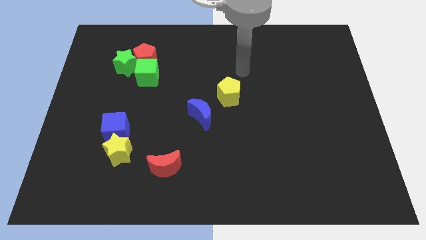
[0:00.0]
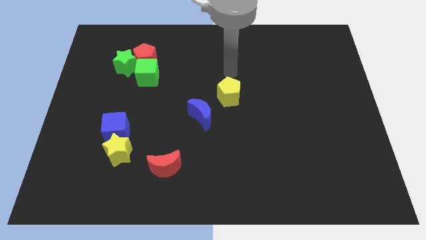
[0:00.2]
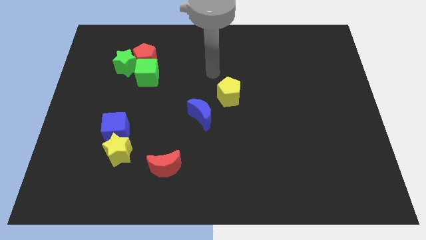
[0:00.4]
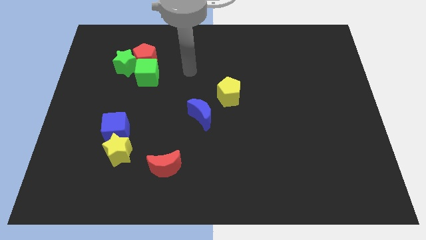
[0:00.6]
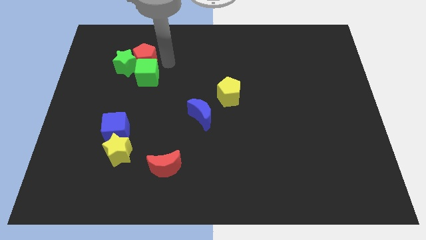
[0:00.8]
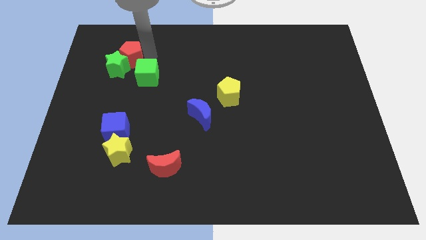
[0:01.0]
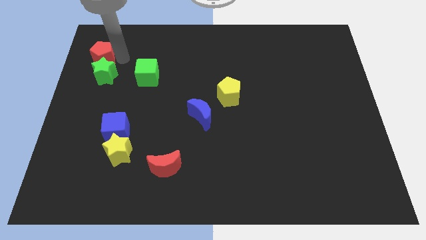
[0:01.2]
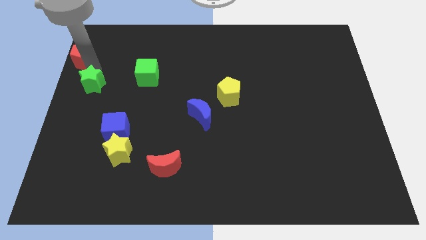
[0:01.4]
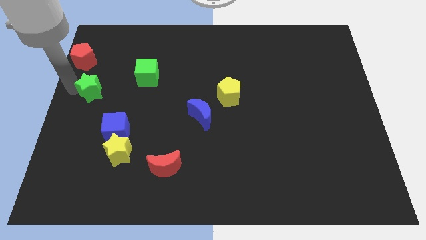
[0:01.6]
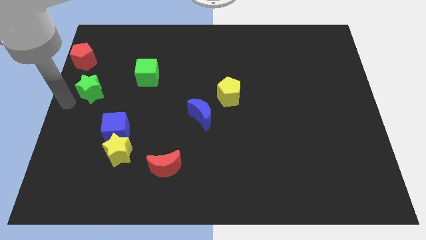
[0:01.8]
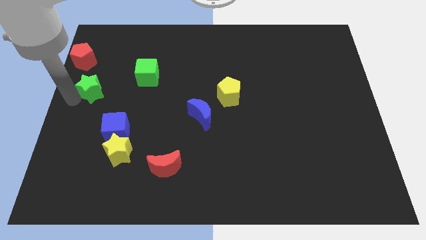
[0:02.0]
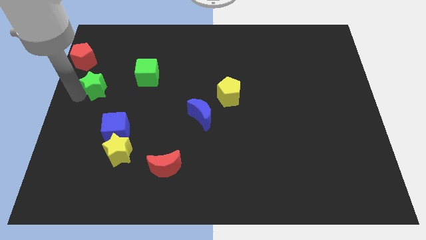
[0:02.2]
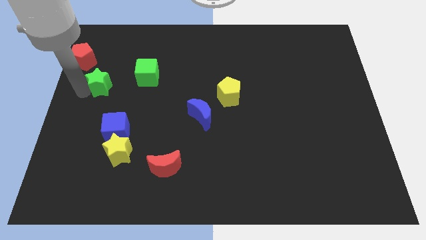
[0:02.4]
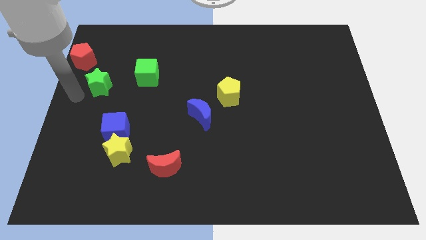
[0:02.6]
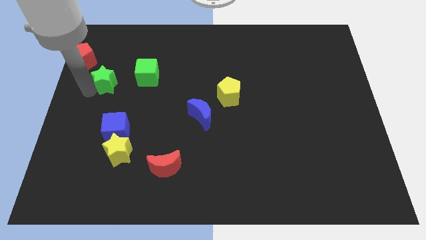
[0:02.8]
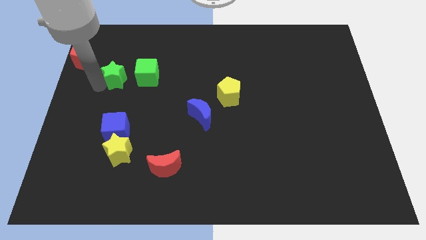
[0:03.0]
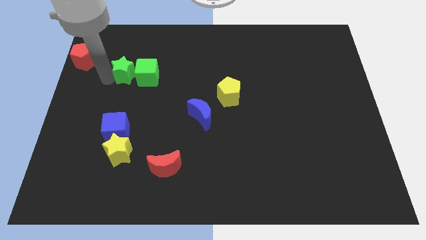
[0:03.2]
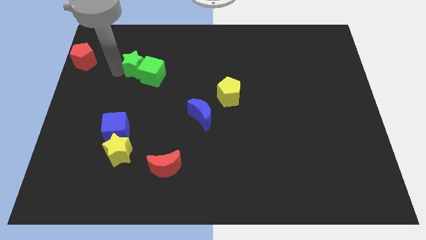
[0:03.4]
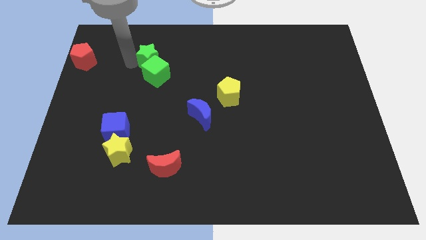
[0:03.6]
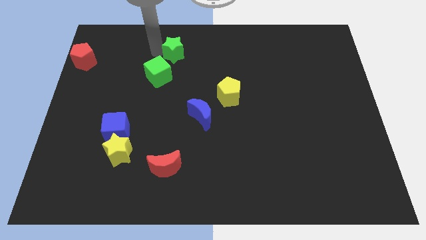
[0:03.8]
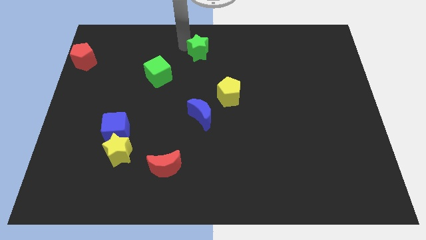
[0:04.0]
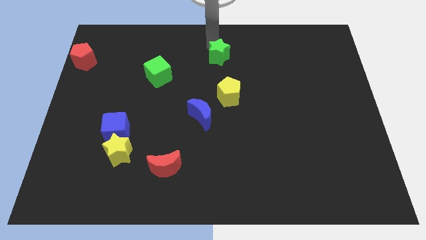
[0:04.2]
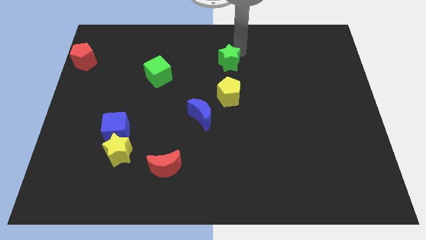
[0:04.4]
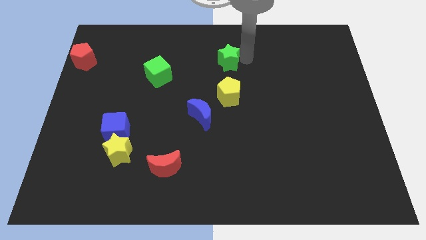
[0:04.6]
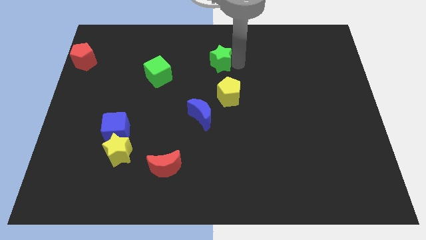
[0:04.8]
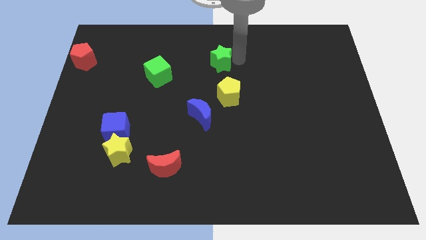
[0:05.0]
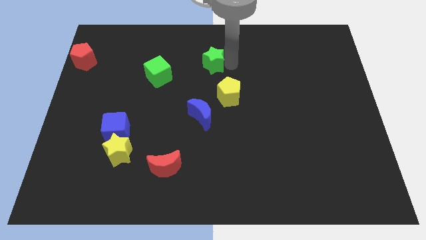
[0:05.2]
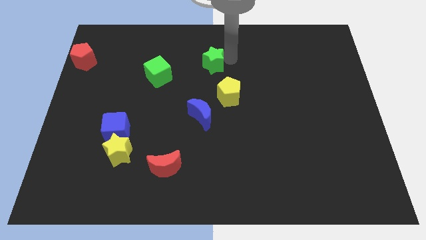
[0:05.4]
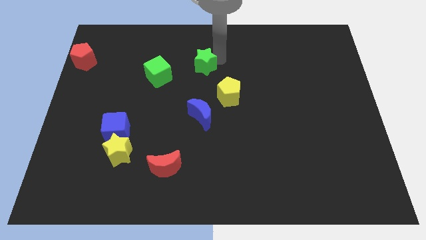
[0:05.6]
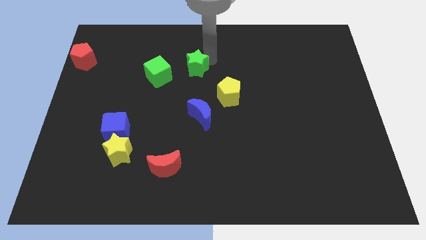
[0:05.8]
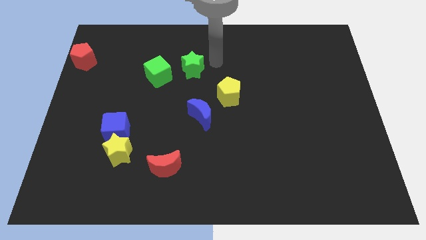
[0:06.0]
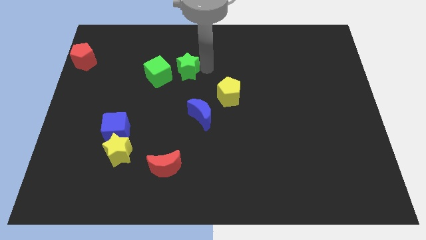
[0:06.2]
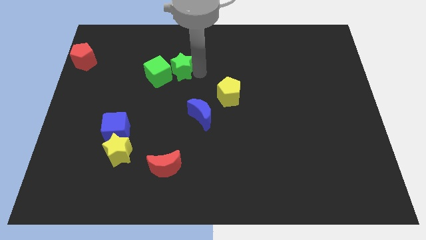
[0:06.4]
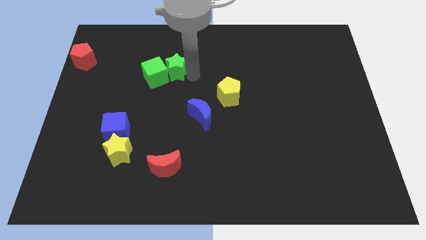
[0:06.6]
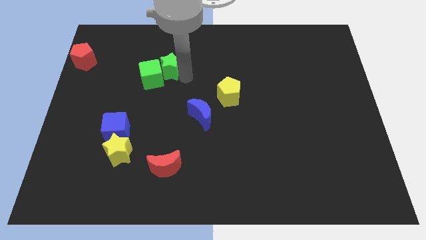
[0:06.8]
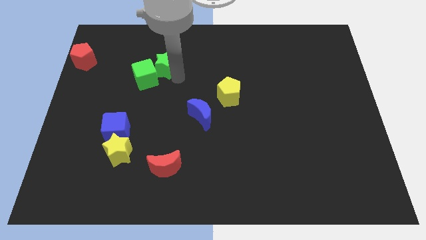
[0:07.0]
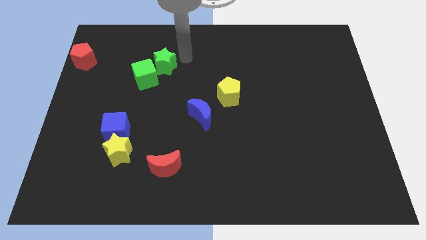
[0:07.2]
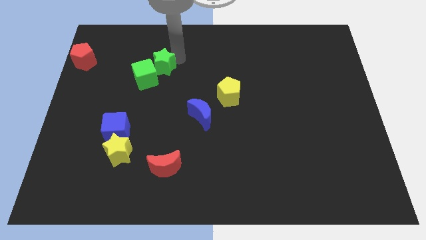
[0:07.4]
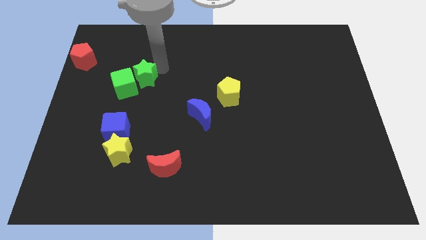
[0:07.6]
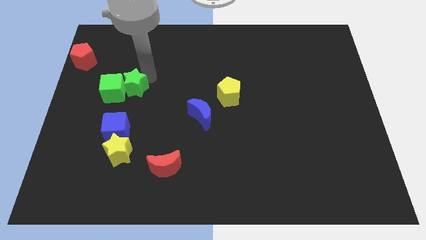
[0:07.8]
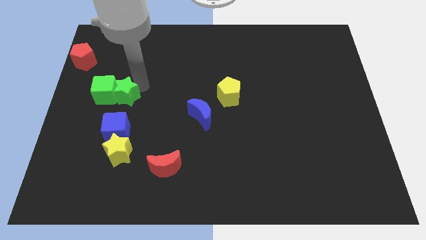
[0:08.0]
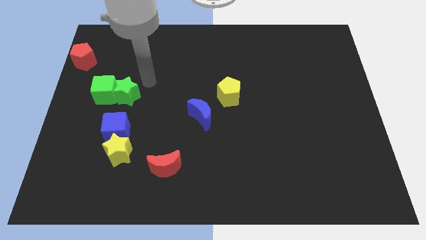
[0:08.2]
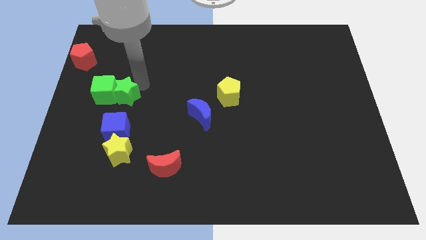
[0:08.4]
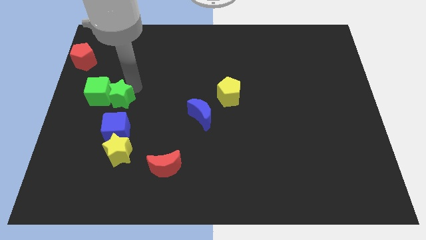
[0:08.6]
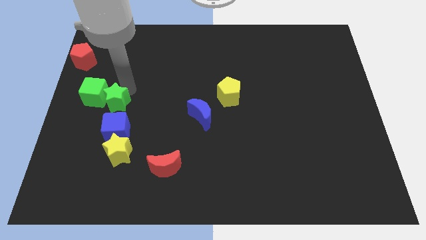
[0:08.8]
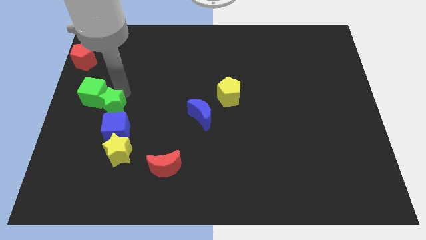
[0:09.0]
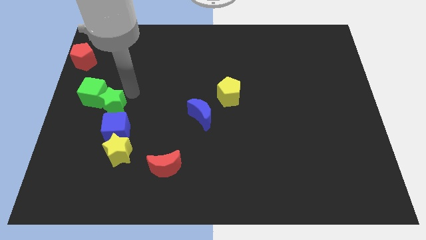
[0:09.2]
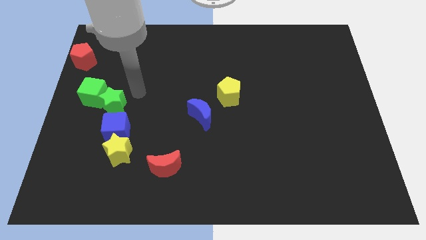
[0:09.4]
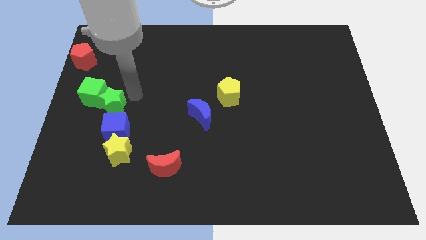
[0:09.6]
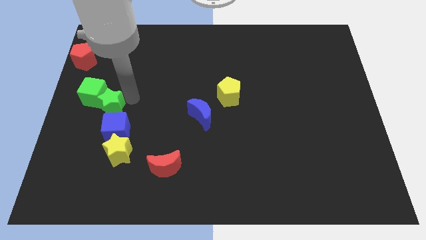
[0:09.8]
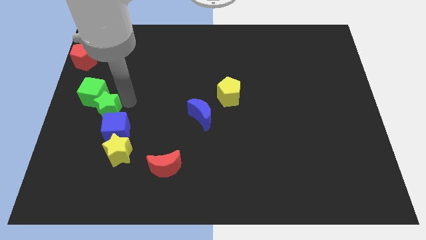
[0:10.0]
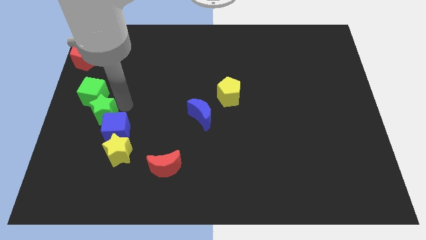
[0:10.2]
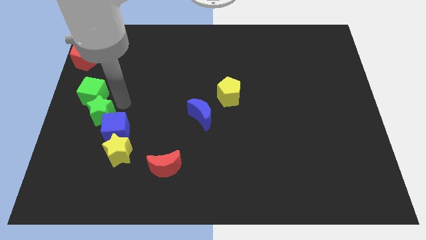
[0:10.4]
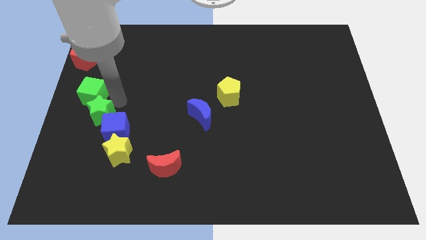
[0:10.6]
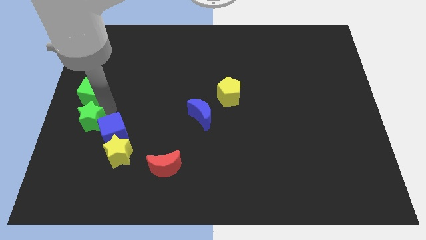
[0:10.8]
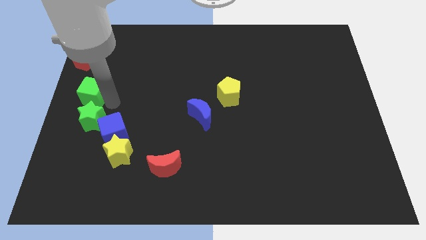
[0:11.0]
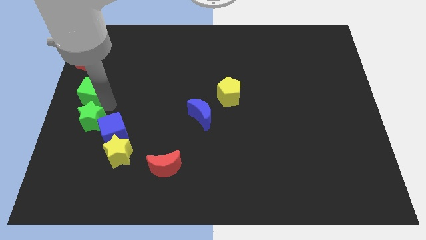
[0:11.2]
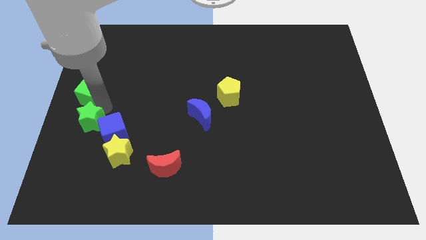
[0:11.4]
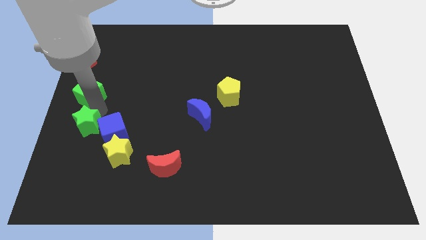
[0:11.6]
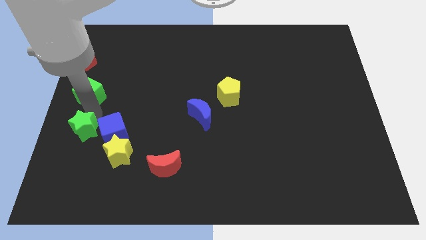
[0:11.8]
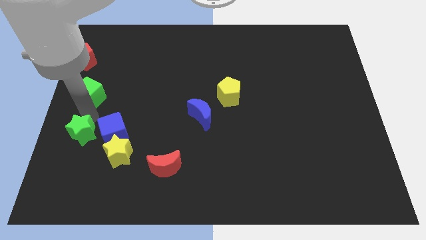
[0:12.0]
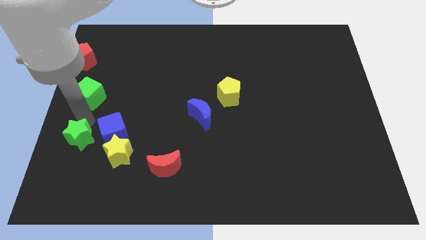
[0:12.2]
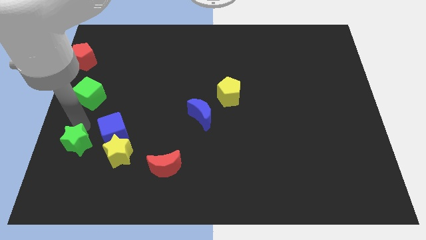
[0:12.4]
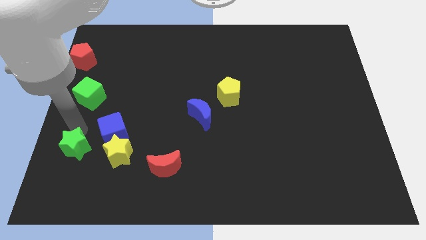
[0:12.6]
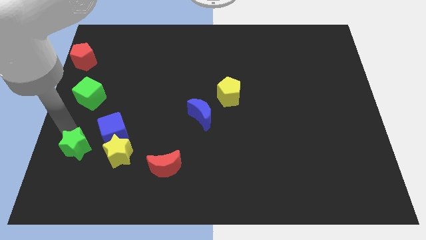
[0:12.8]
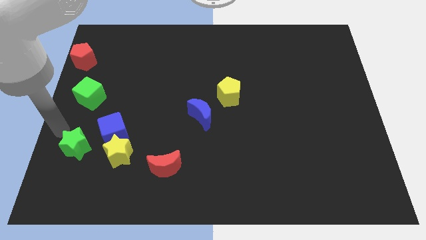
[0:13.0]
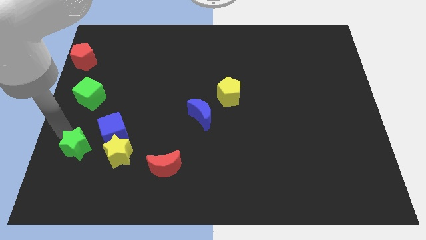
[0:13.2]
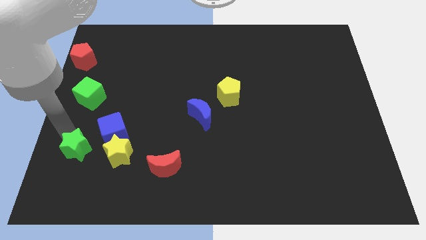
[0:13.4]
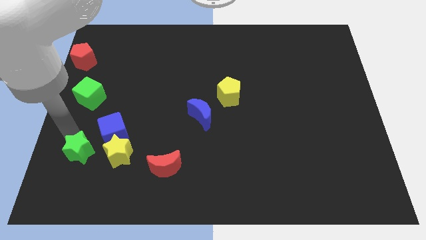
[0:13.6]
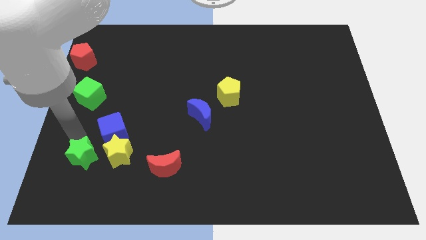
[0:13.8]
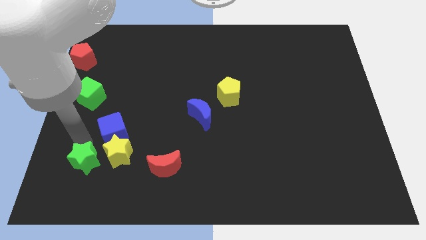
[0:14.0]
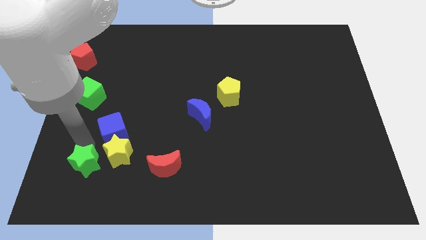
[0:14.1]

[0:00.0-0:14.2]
move the green star left of the red moon
